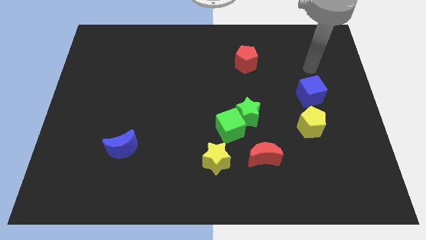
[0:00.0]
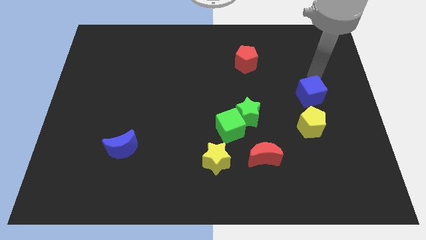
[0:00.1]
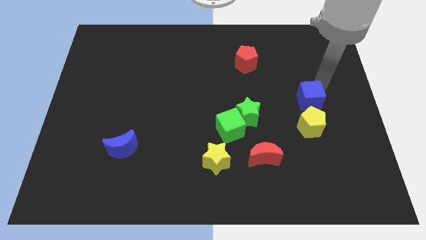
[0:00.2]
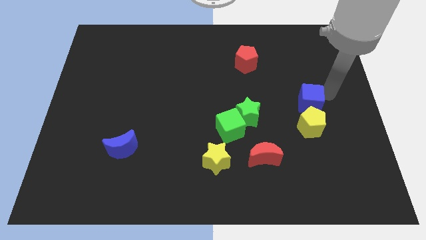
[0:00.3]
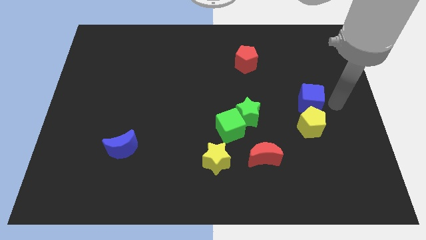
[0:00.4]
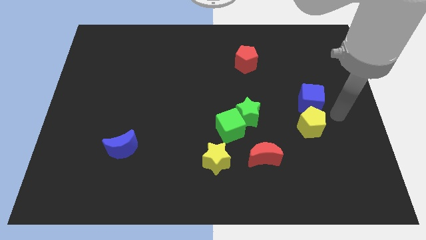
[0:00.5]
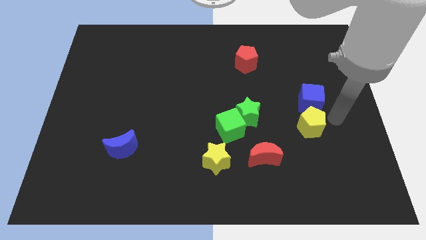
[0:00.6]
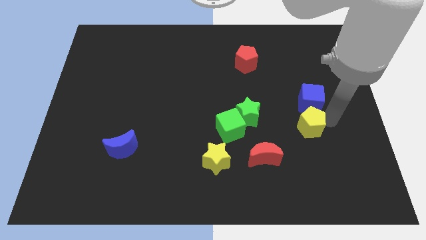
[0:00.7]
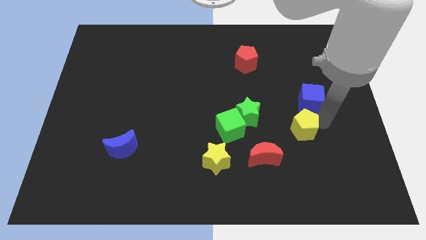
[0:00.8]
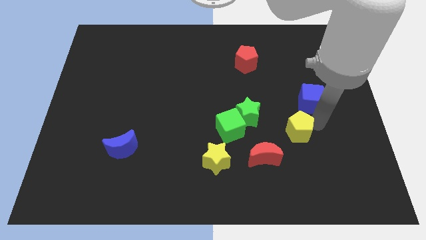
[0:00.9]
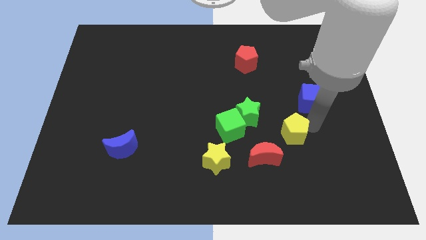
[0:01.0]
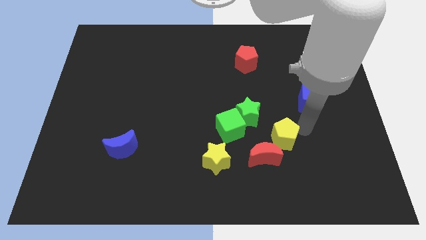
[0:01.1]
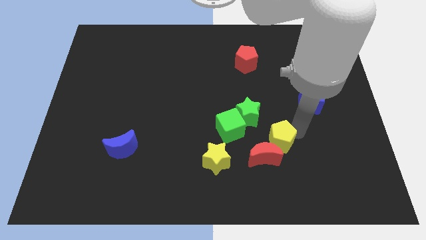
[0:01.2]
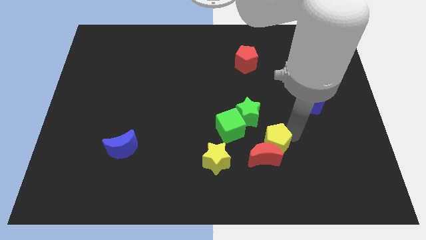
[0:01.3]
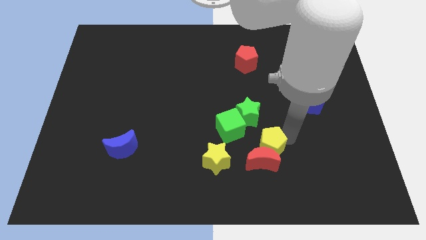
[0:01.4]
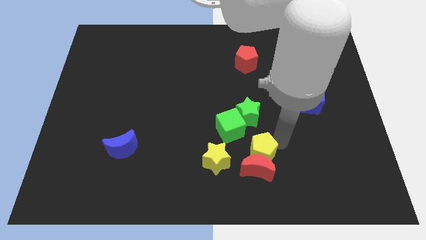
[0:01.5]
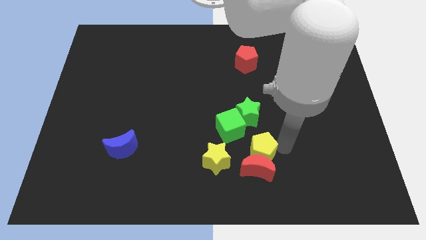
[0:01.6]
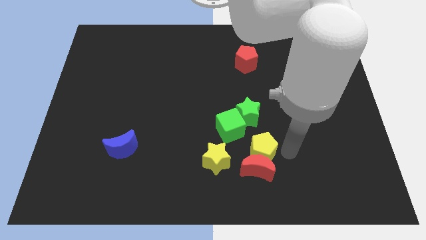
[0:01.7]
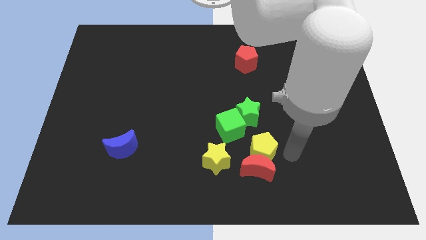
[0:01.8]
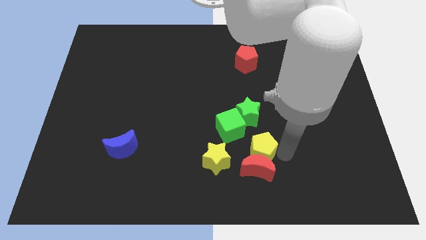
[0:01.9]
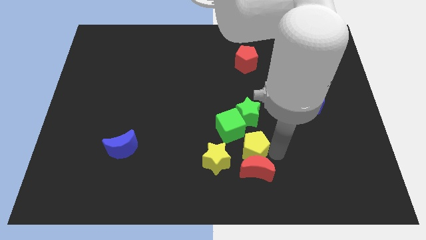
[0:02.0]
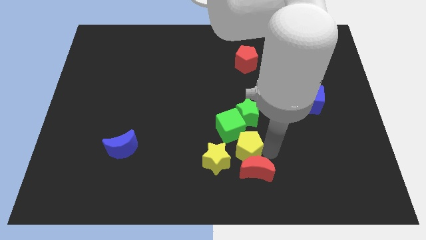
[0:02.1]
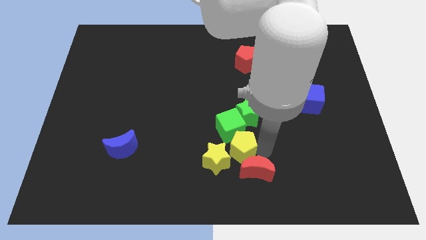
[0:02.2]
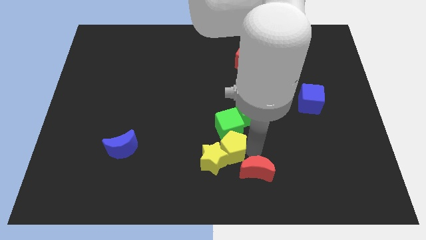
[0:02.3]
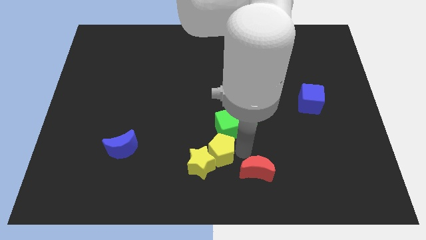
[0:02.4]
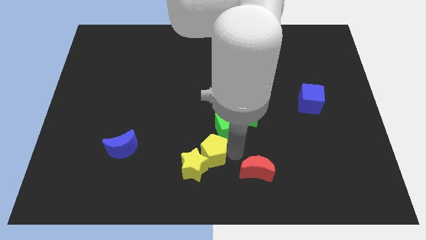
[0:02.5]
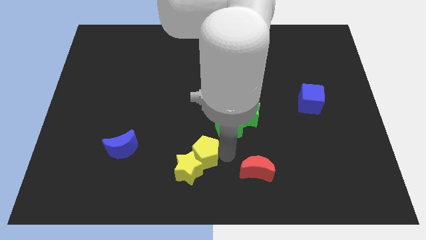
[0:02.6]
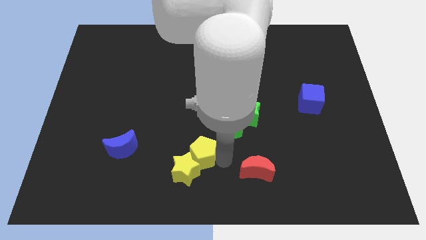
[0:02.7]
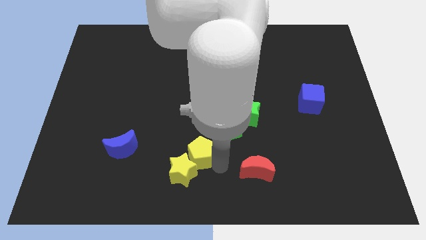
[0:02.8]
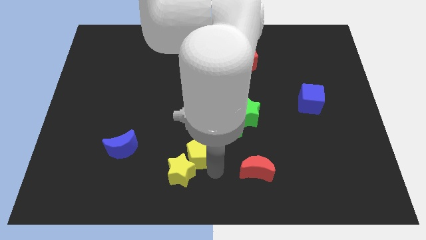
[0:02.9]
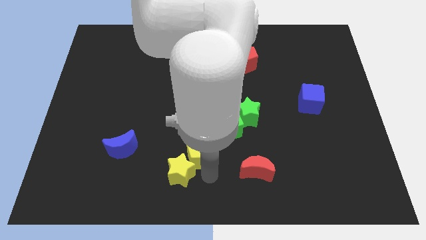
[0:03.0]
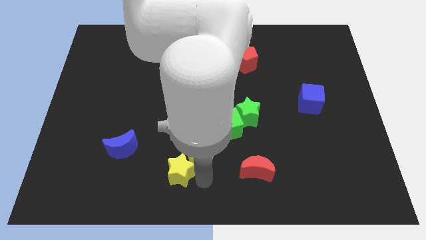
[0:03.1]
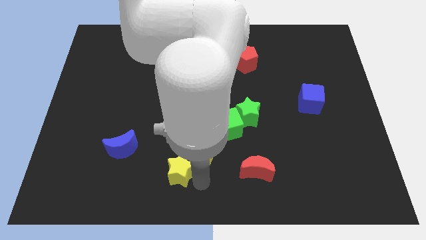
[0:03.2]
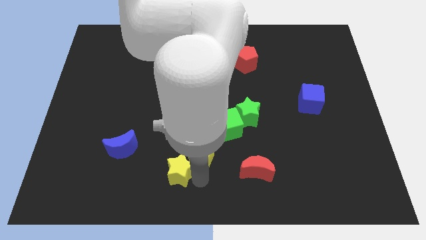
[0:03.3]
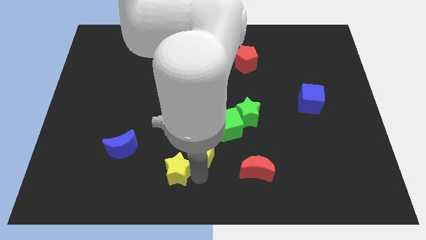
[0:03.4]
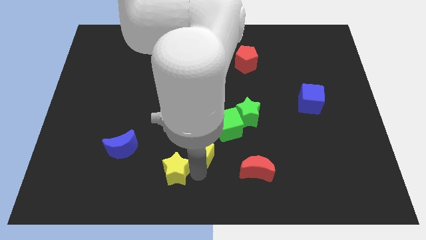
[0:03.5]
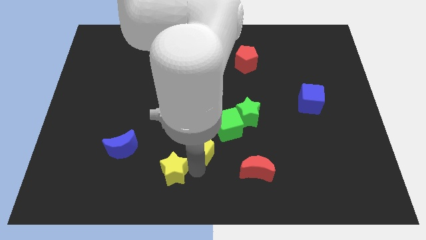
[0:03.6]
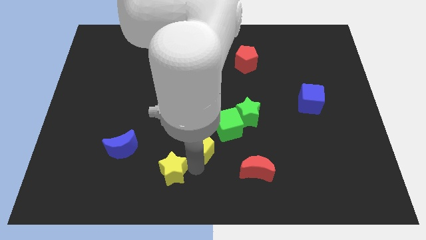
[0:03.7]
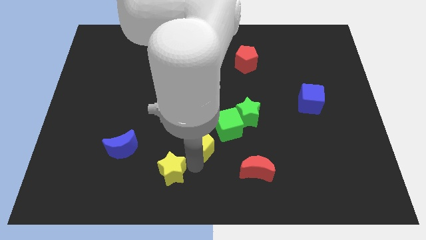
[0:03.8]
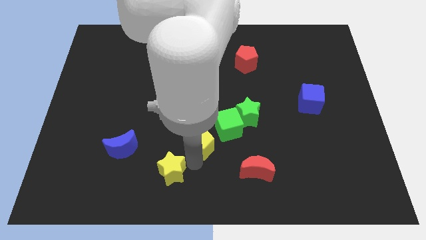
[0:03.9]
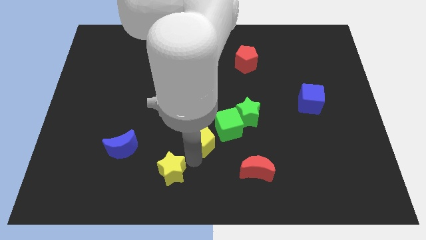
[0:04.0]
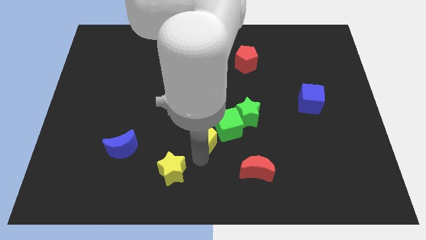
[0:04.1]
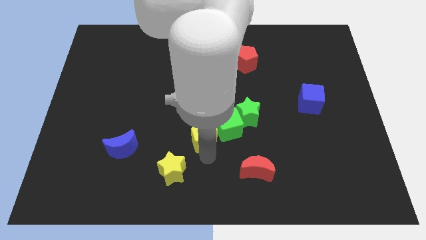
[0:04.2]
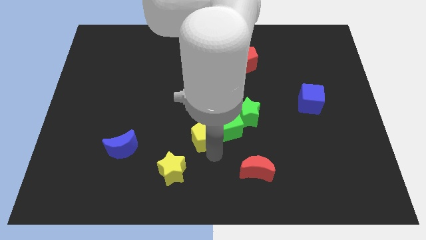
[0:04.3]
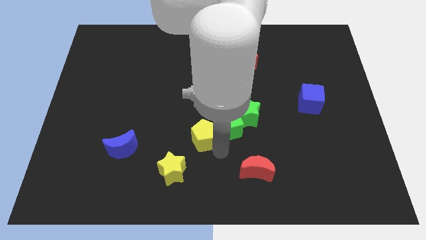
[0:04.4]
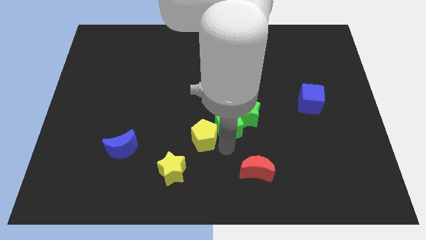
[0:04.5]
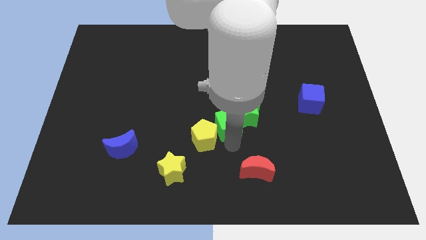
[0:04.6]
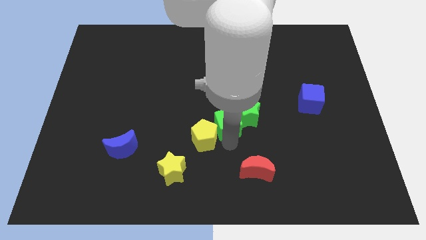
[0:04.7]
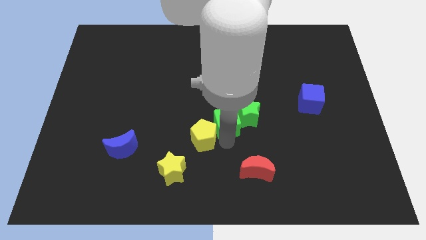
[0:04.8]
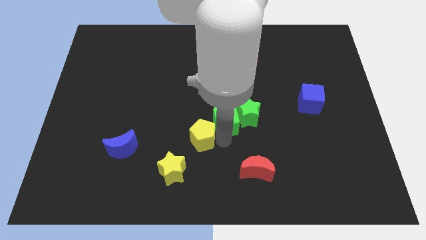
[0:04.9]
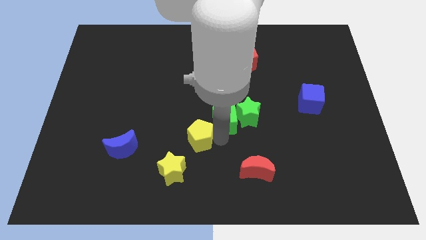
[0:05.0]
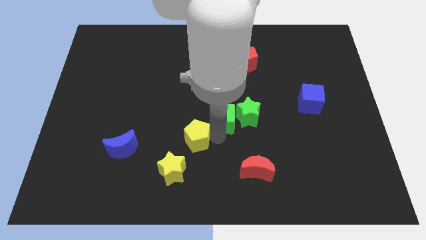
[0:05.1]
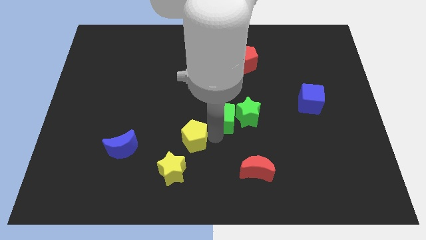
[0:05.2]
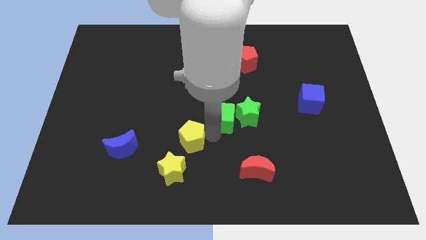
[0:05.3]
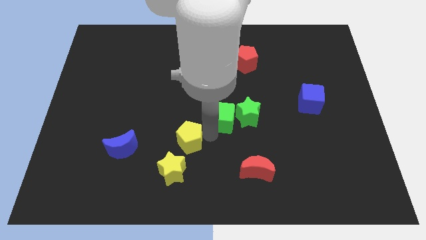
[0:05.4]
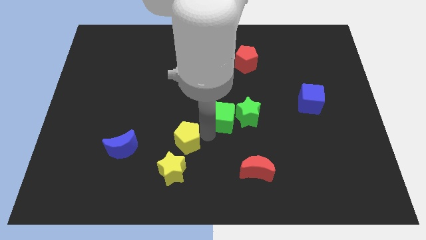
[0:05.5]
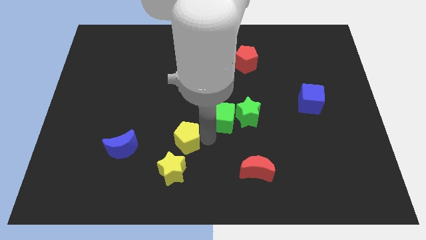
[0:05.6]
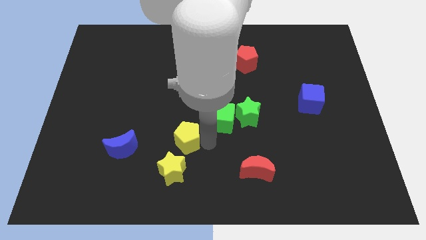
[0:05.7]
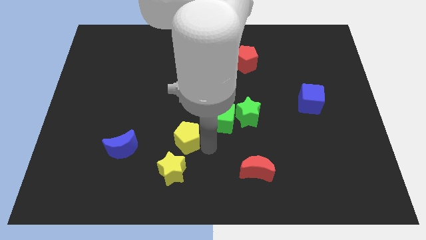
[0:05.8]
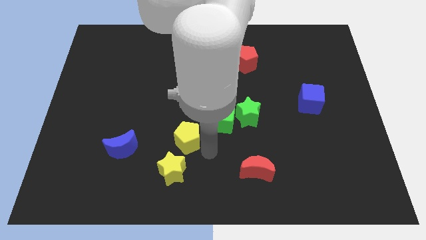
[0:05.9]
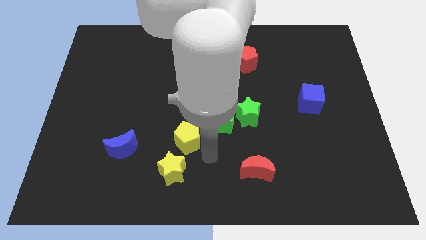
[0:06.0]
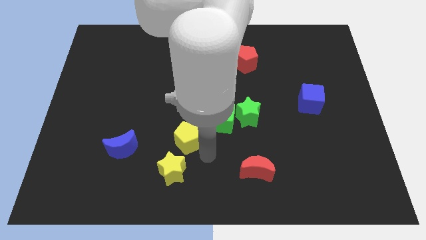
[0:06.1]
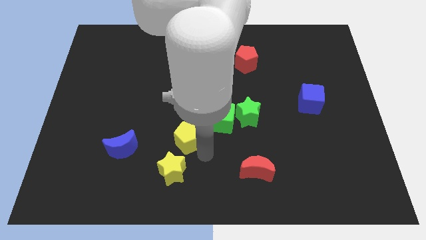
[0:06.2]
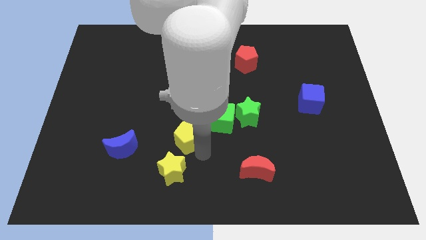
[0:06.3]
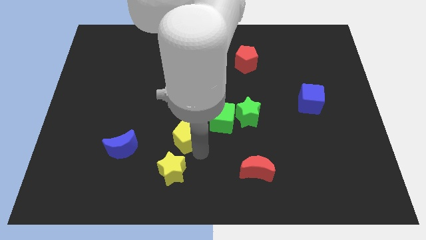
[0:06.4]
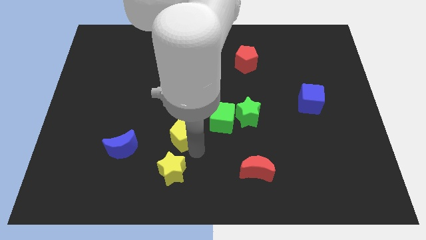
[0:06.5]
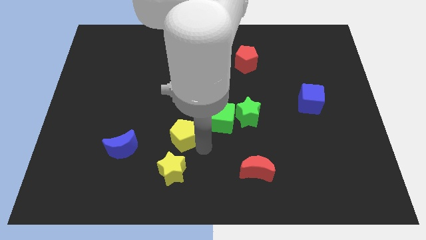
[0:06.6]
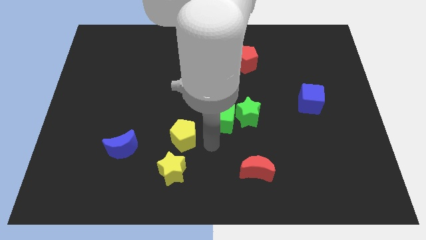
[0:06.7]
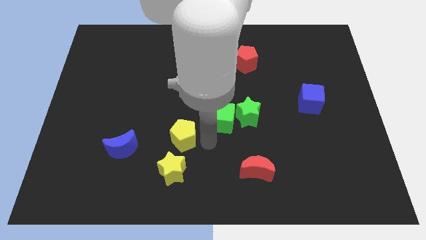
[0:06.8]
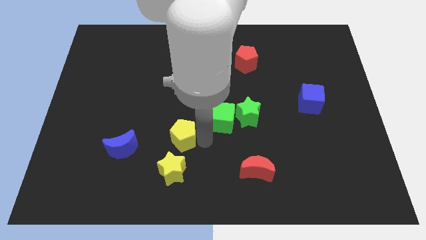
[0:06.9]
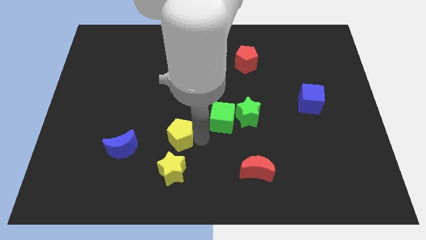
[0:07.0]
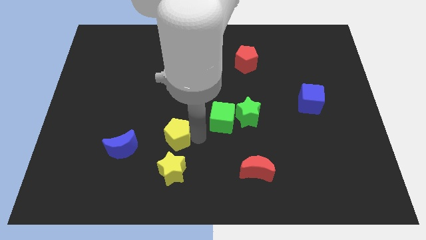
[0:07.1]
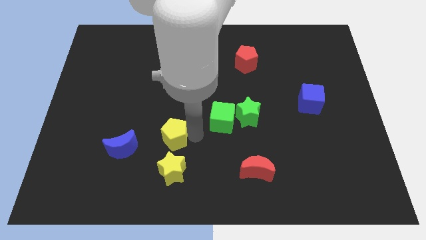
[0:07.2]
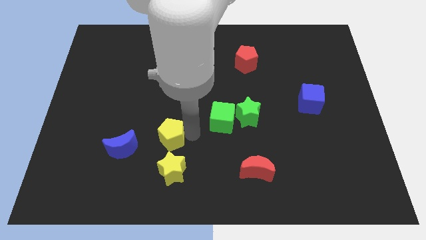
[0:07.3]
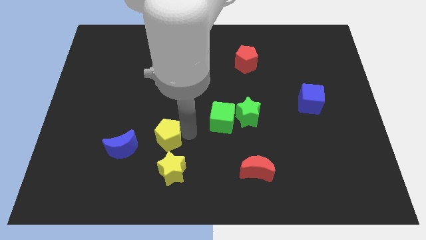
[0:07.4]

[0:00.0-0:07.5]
push the yellow pentagon diagonally up and to the right of the blue moon
